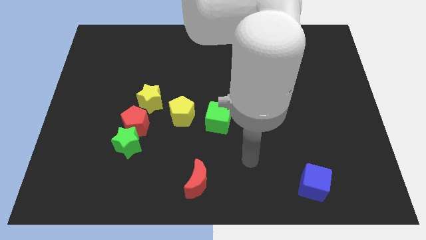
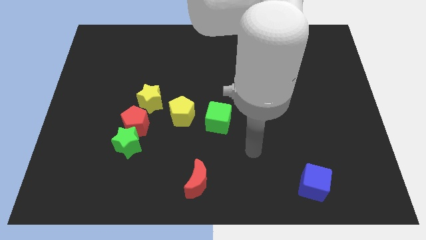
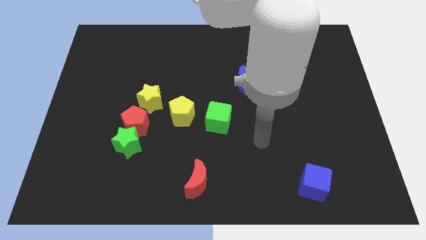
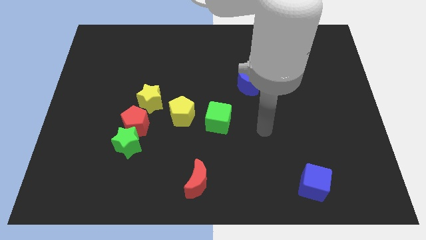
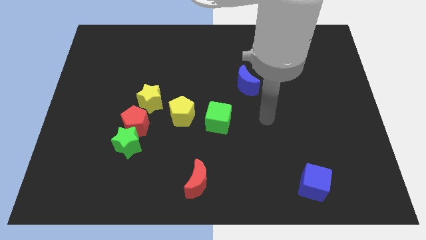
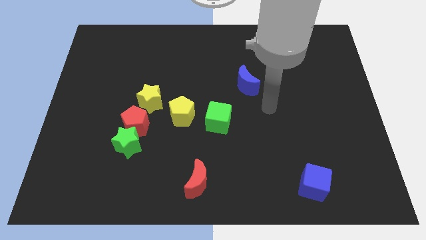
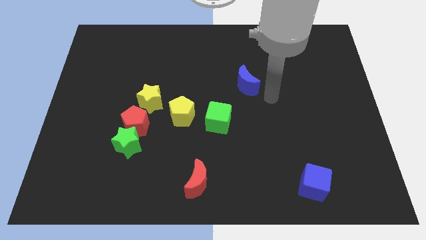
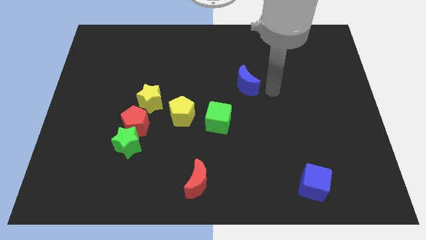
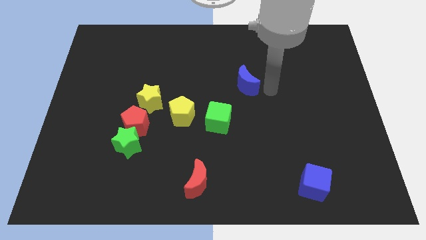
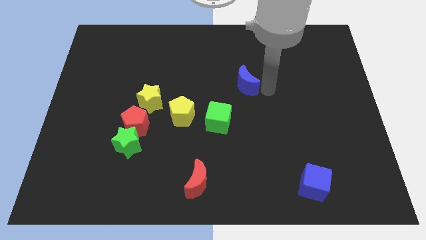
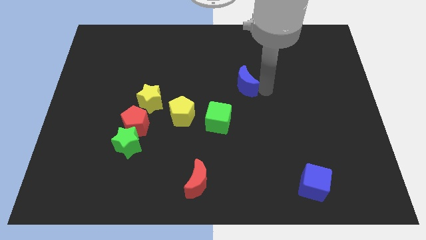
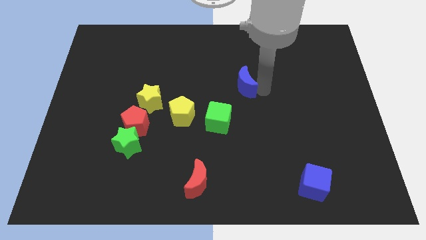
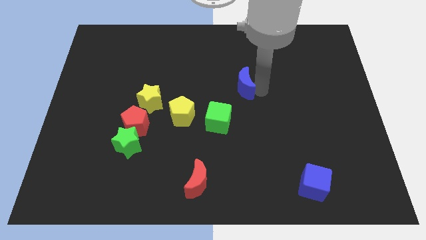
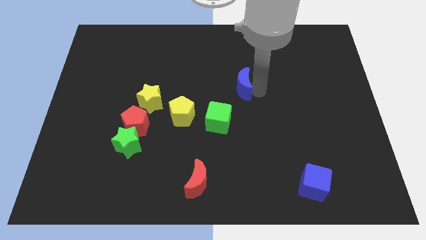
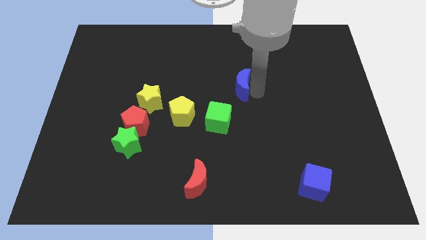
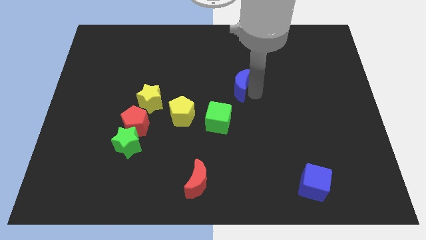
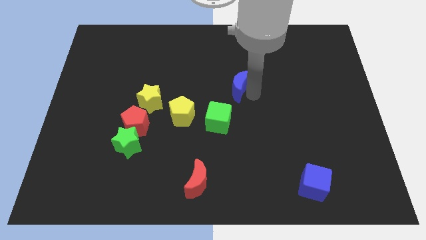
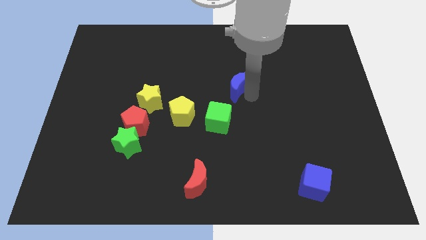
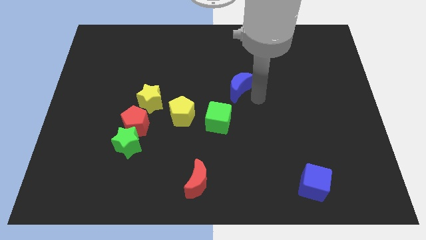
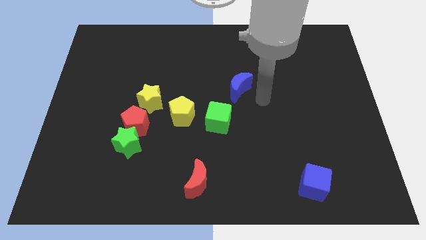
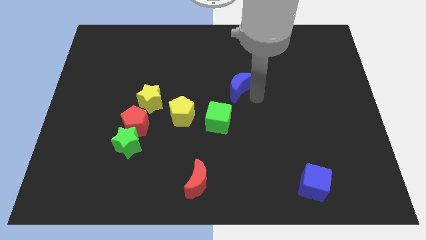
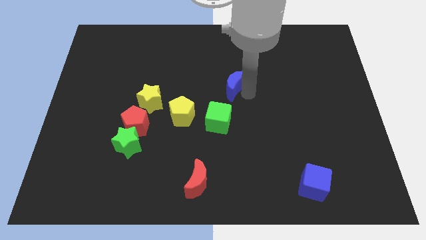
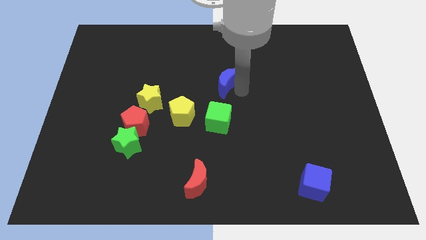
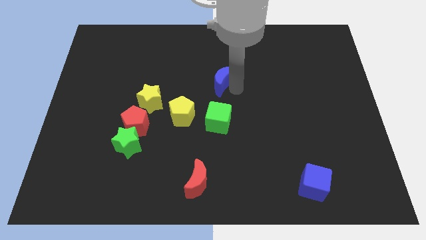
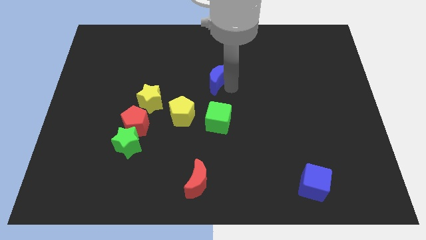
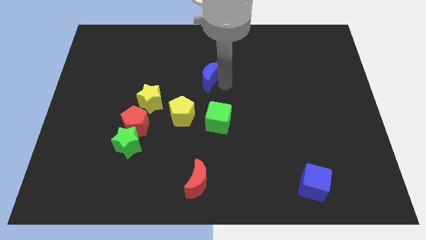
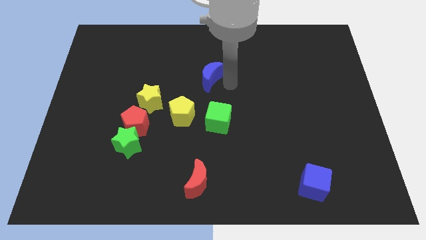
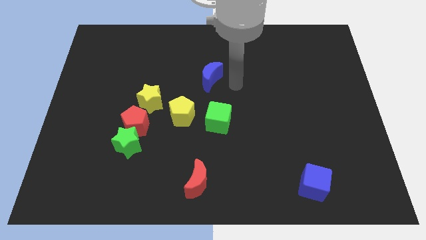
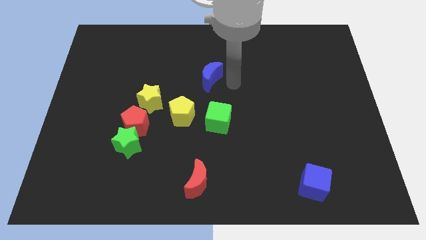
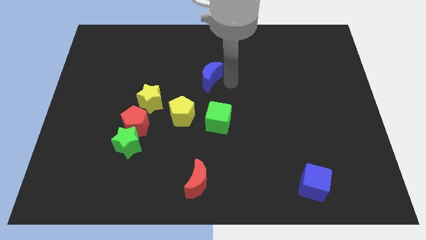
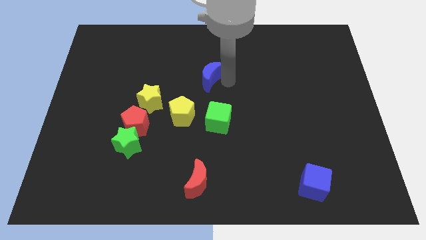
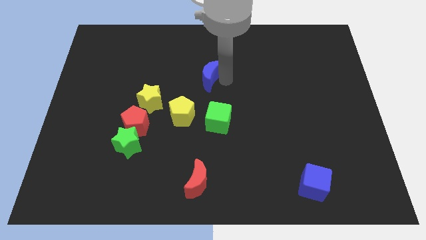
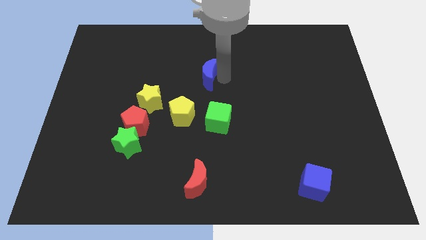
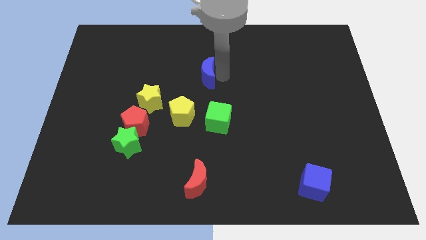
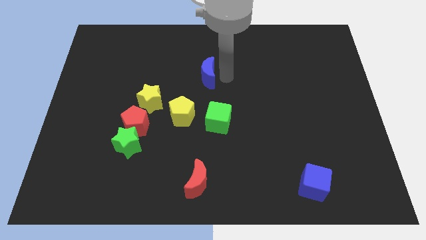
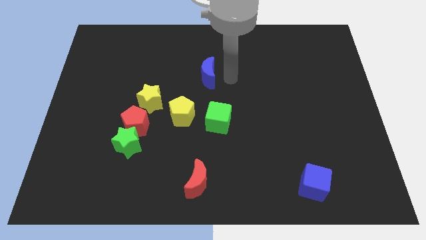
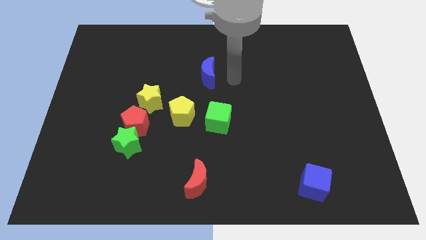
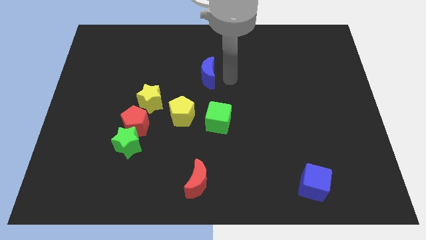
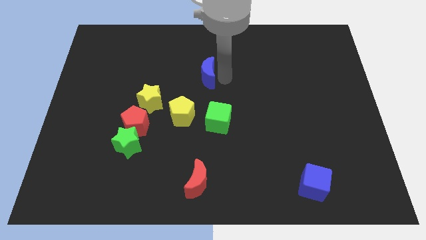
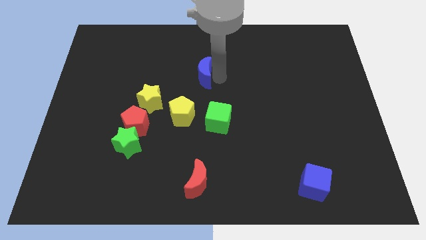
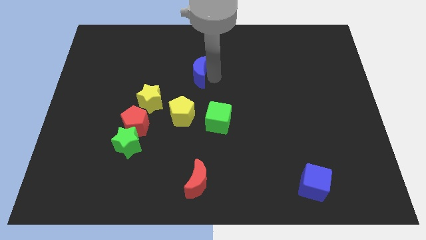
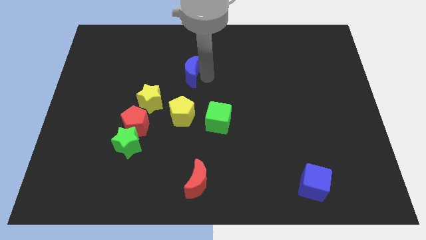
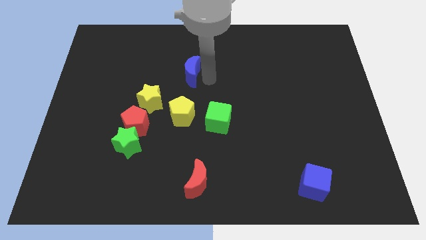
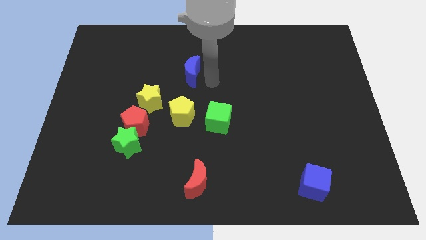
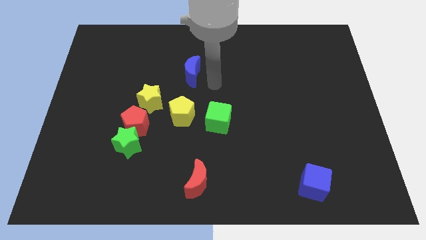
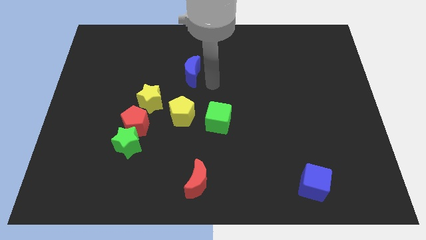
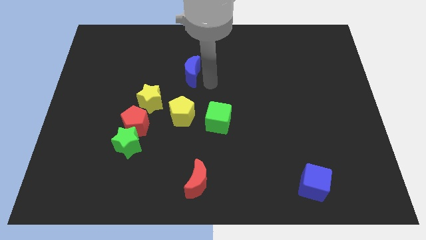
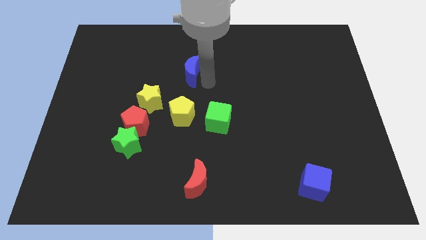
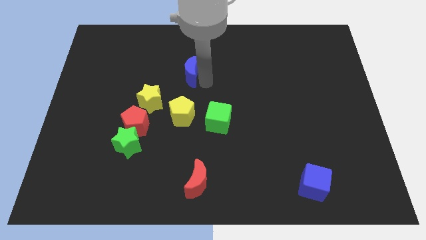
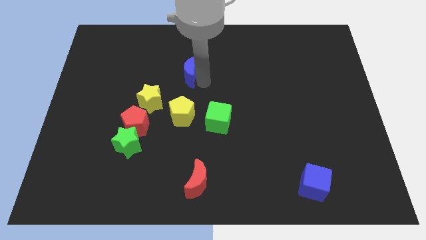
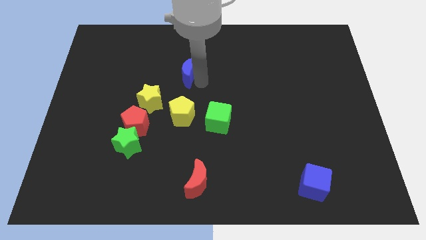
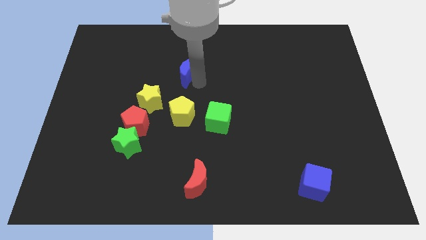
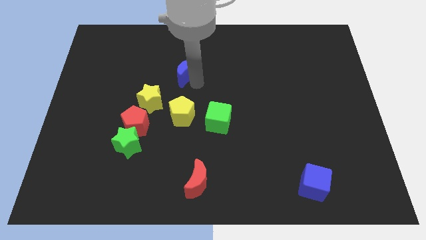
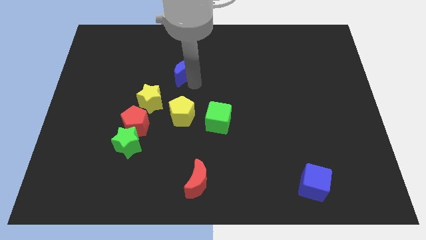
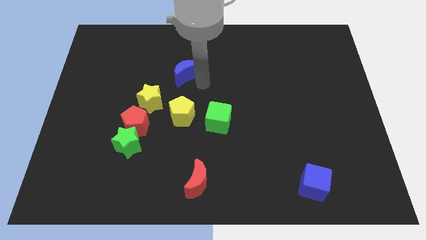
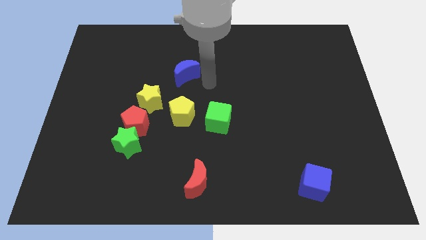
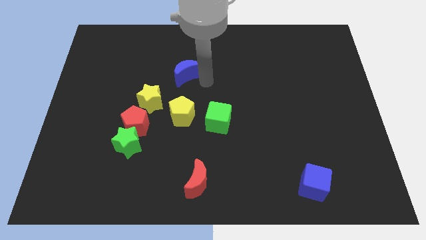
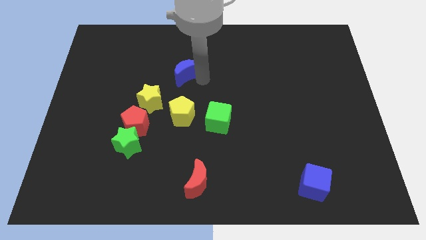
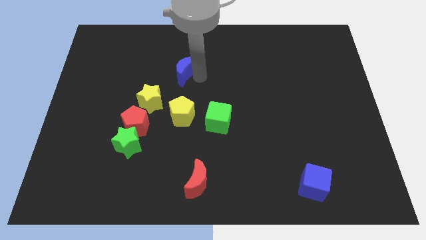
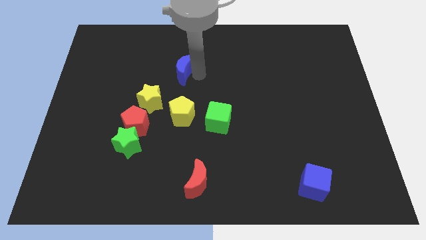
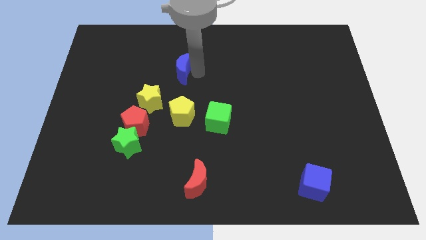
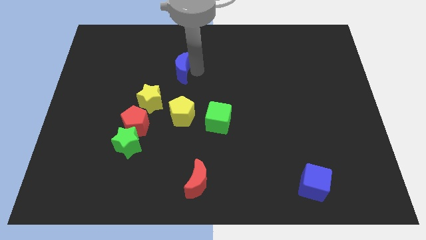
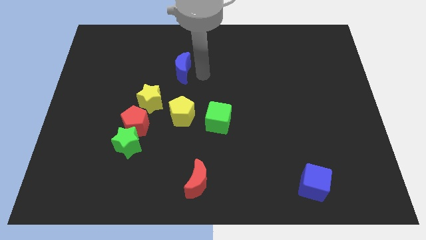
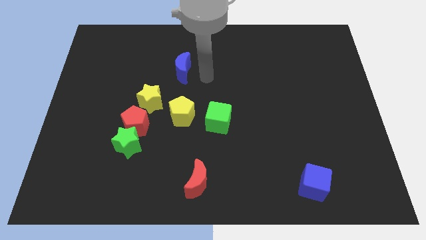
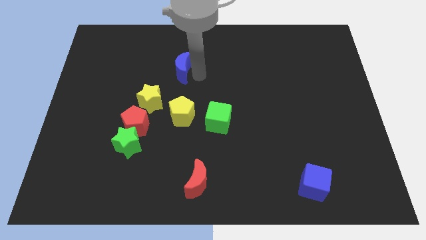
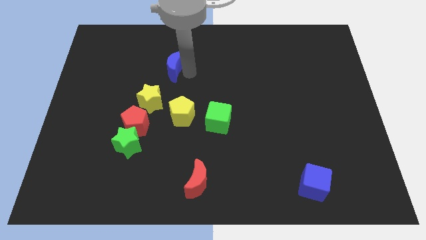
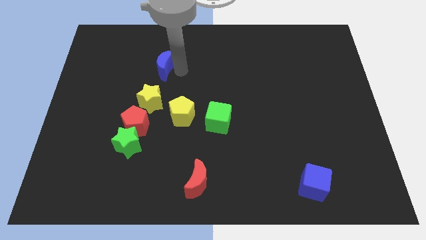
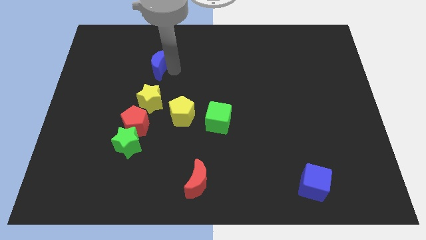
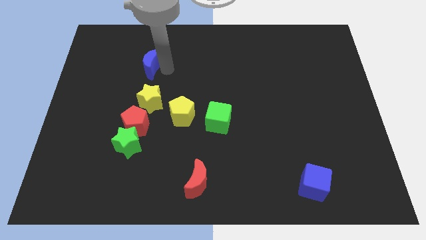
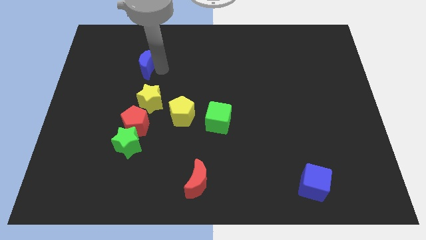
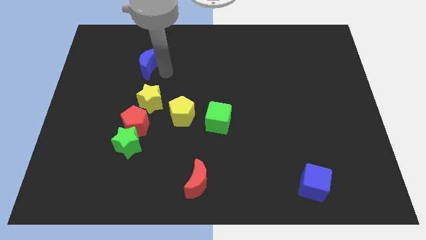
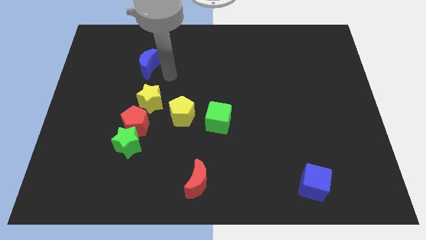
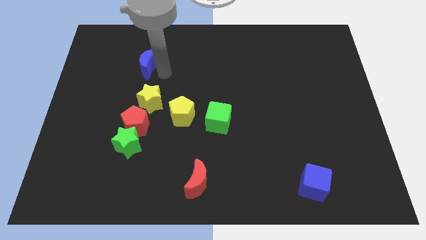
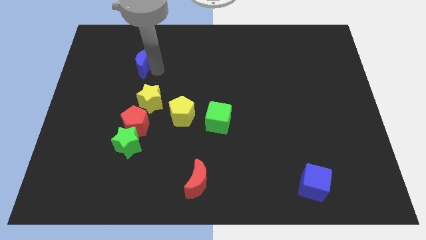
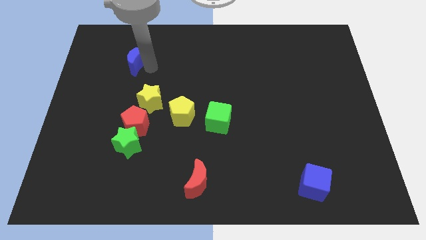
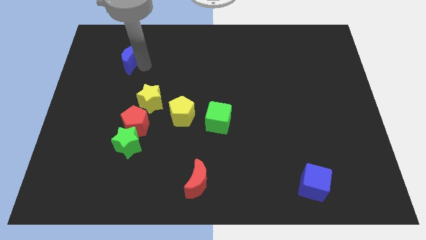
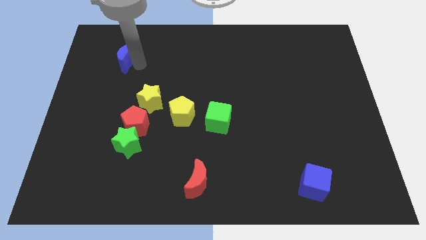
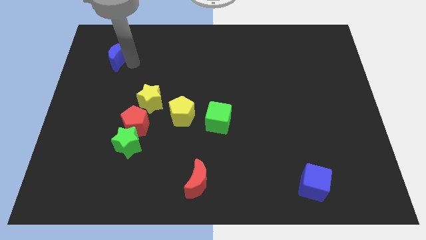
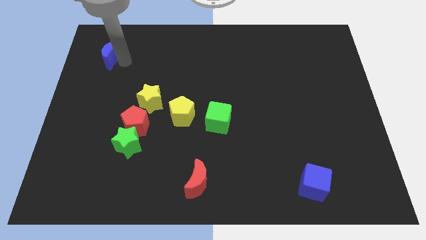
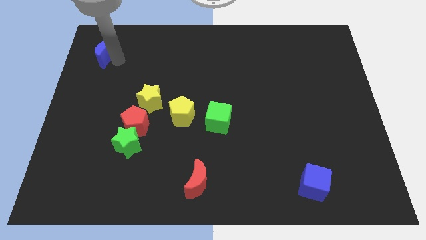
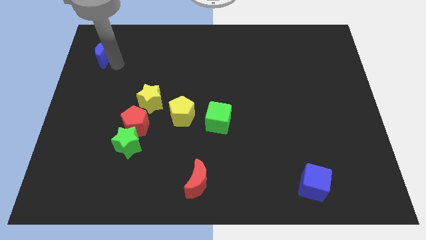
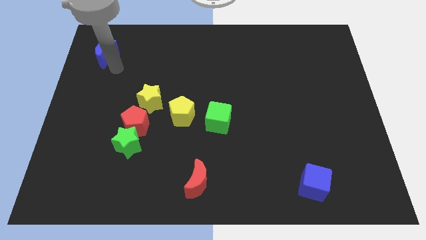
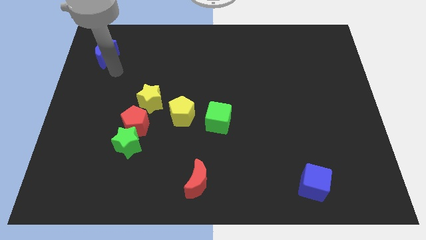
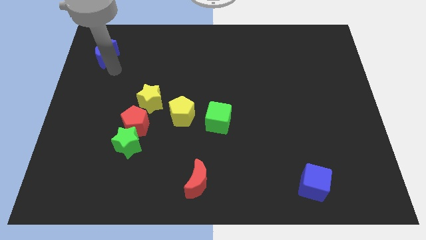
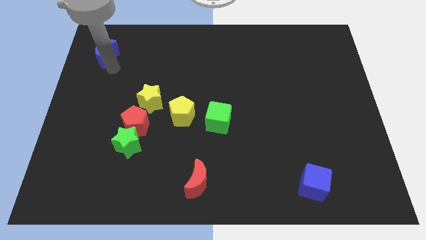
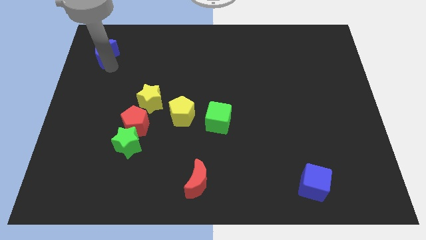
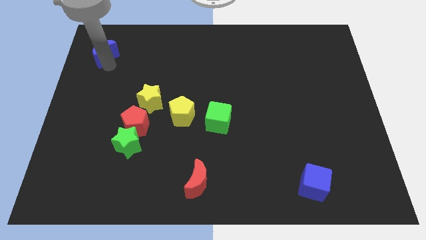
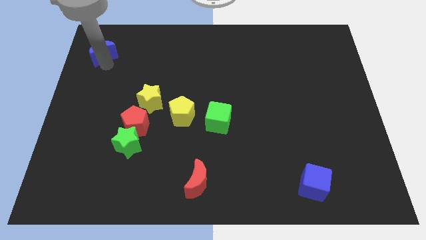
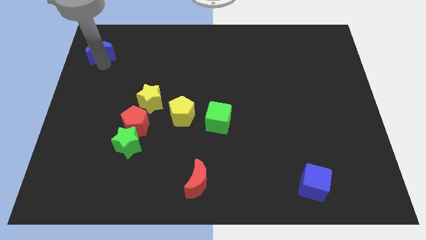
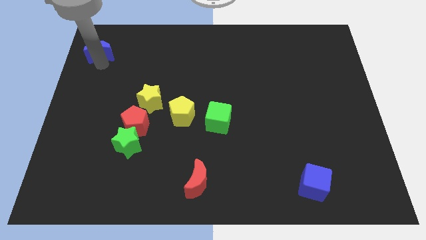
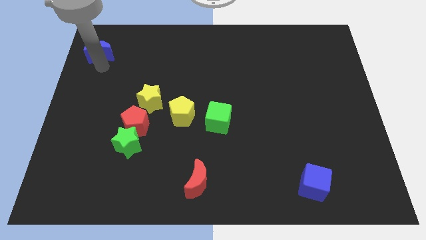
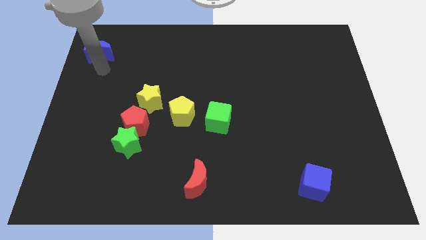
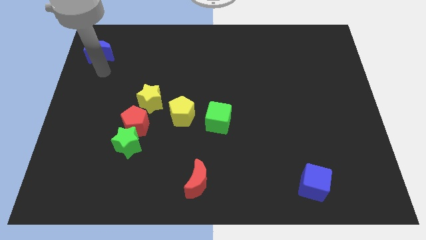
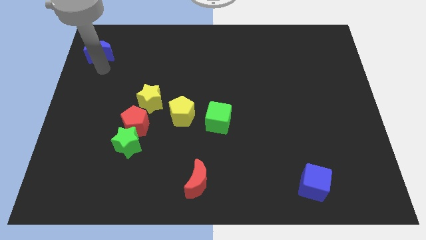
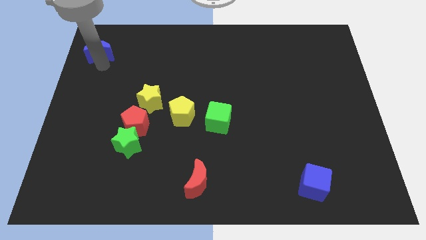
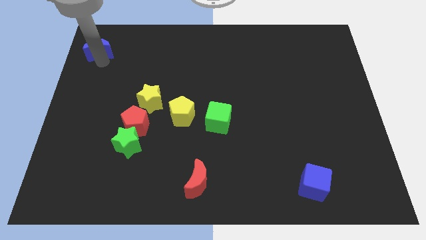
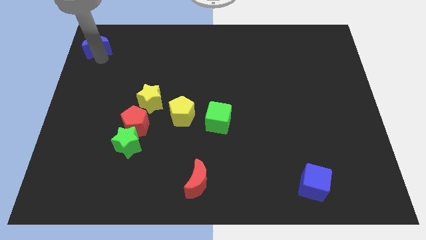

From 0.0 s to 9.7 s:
push the blue moon to the top left corner
